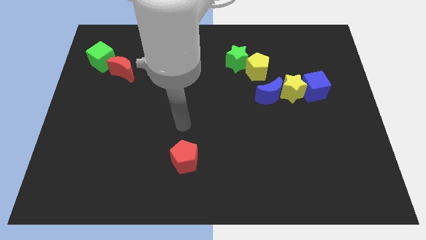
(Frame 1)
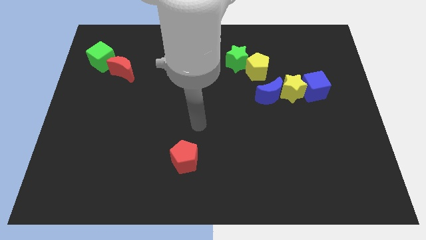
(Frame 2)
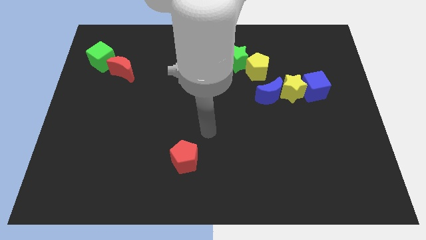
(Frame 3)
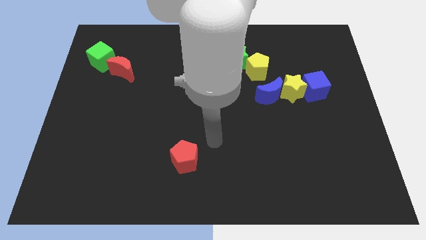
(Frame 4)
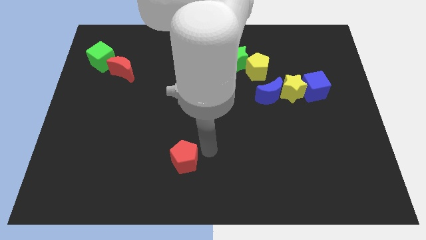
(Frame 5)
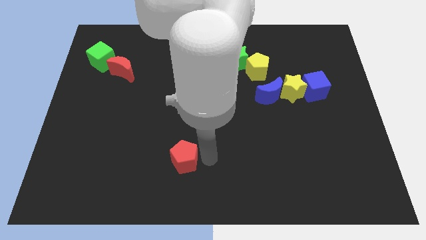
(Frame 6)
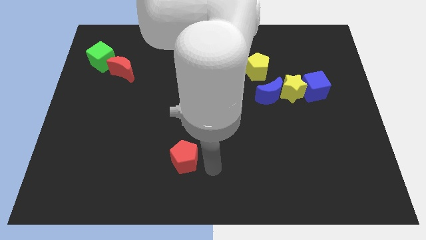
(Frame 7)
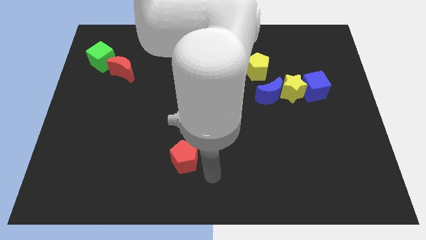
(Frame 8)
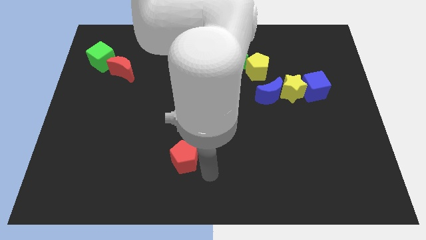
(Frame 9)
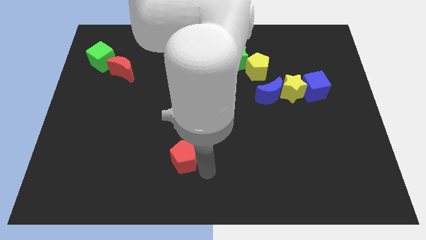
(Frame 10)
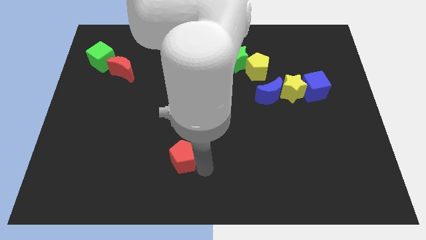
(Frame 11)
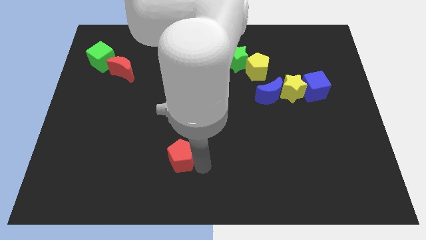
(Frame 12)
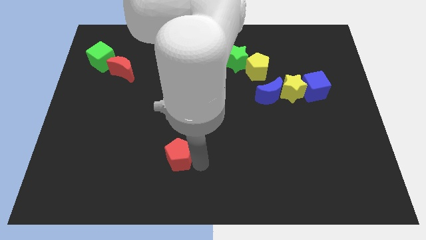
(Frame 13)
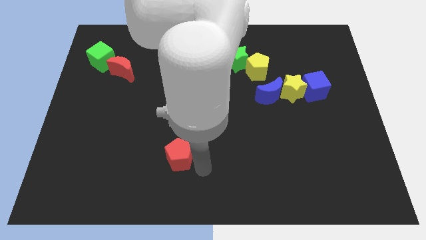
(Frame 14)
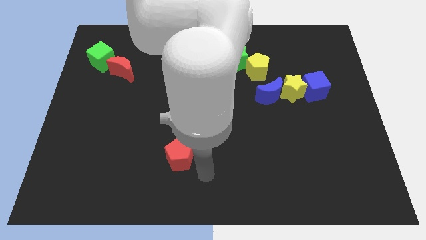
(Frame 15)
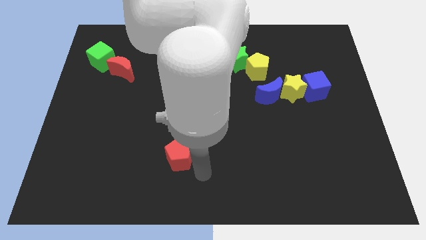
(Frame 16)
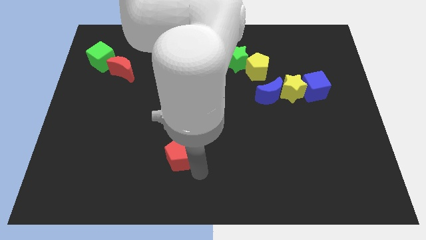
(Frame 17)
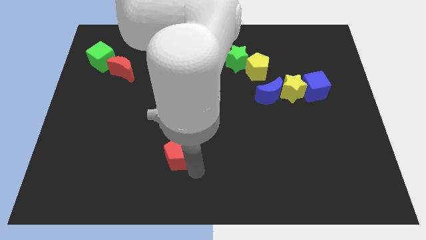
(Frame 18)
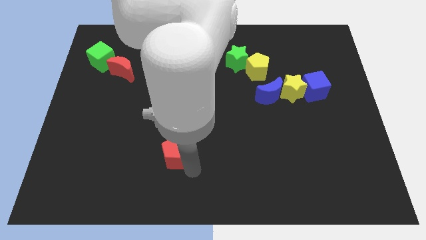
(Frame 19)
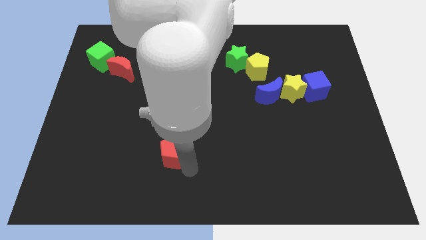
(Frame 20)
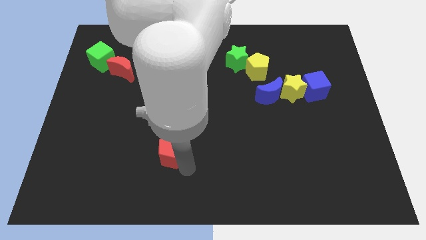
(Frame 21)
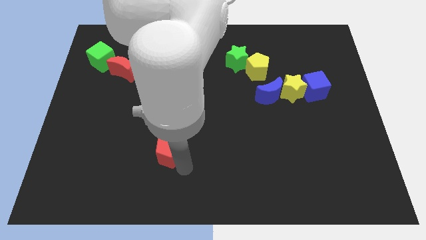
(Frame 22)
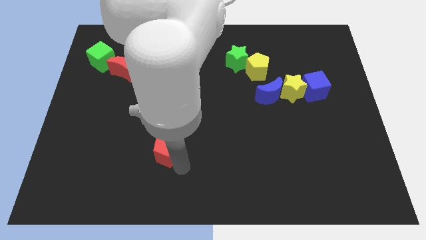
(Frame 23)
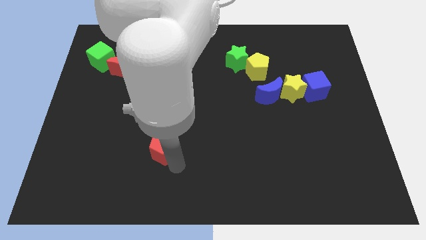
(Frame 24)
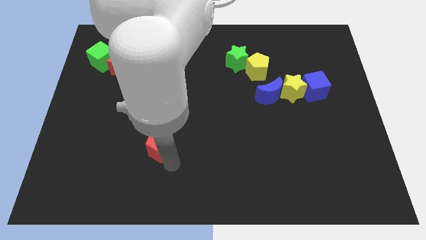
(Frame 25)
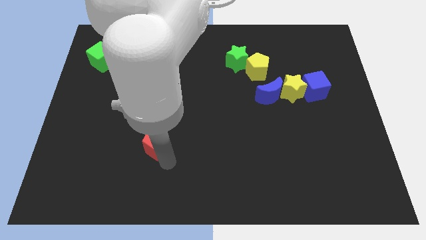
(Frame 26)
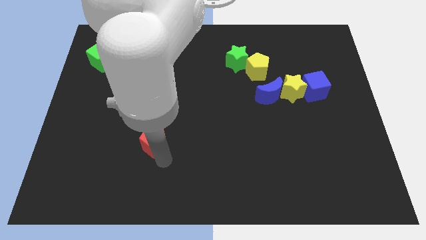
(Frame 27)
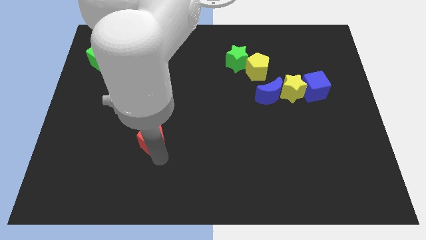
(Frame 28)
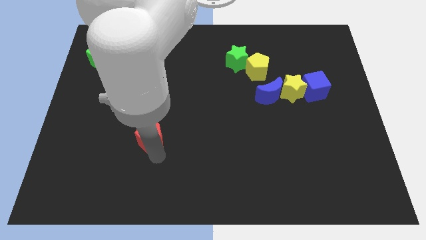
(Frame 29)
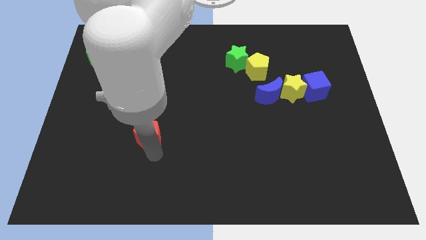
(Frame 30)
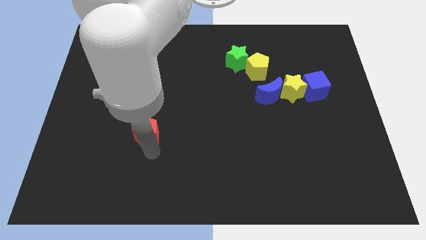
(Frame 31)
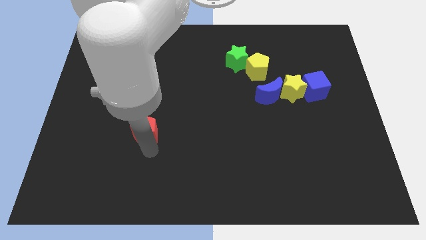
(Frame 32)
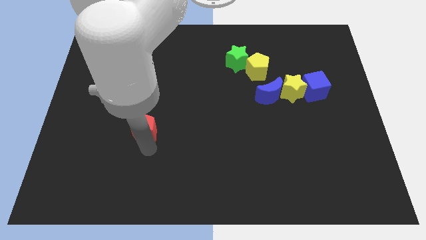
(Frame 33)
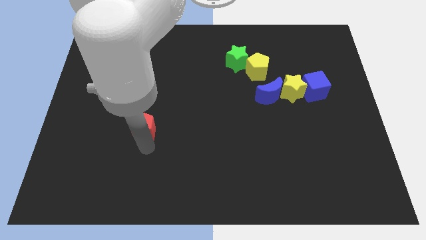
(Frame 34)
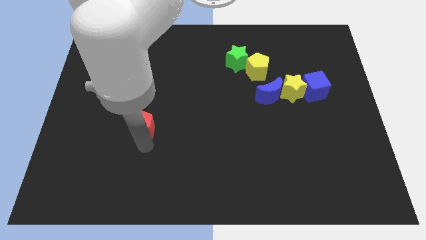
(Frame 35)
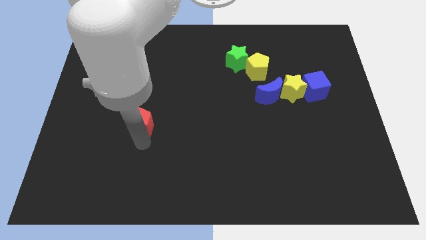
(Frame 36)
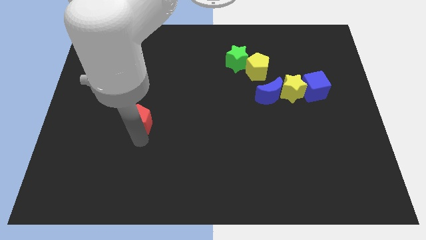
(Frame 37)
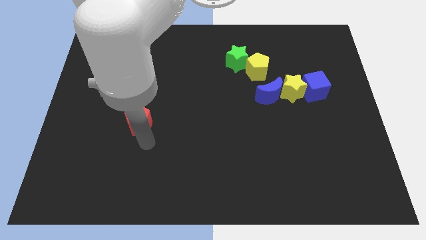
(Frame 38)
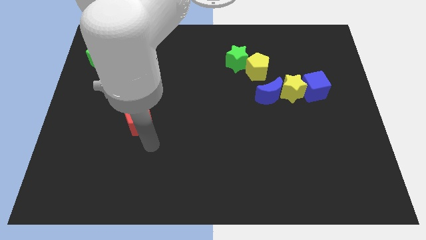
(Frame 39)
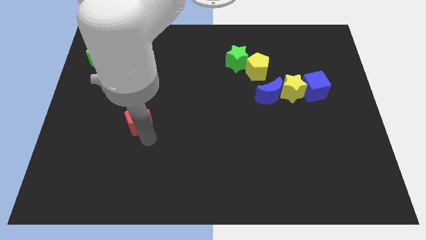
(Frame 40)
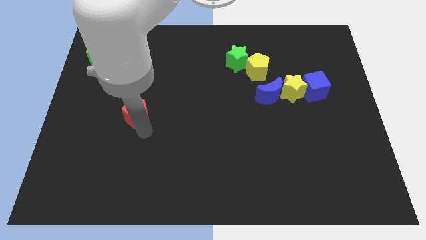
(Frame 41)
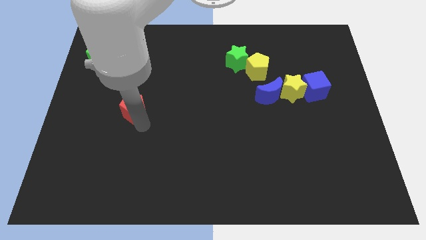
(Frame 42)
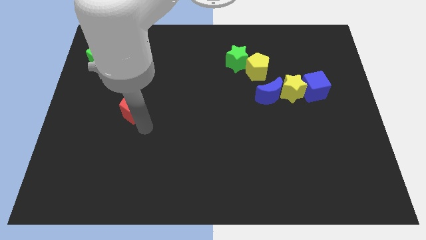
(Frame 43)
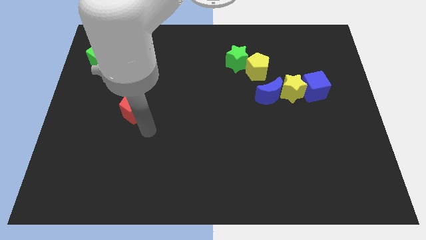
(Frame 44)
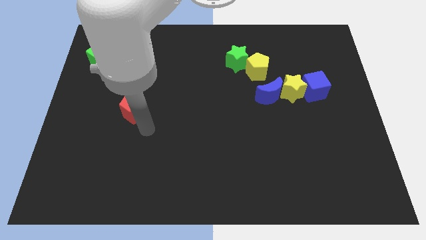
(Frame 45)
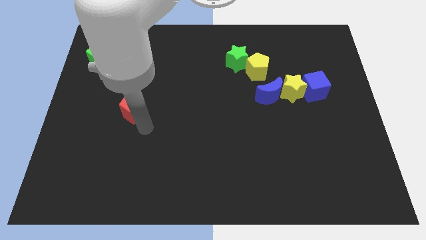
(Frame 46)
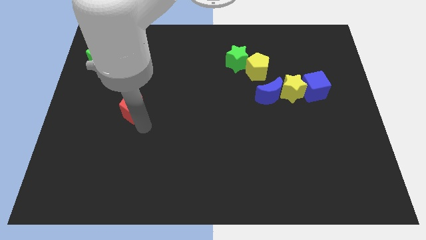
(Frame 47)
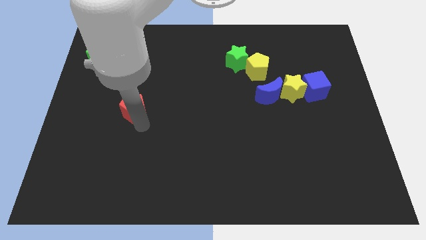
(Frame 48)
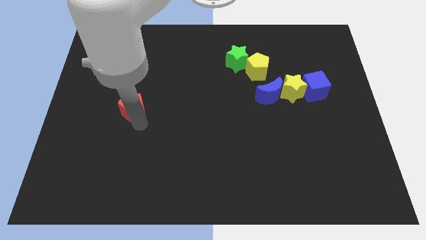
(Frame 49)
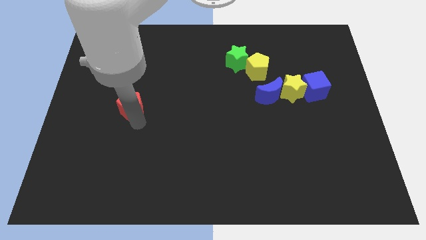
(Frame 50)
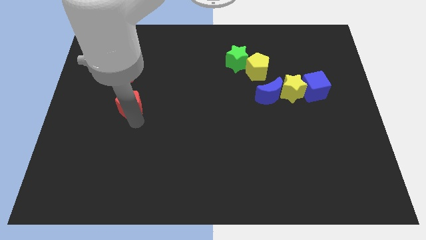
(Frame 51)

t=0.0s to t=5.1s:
push the red pentagon diagonally upwards and left

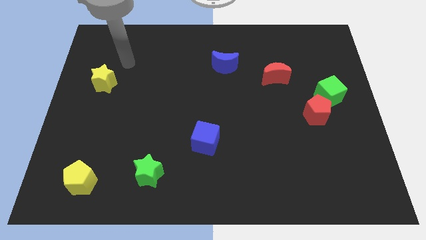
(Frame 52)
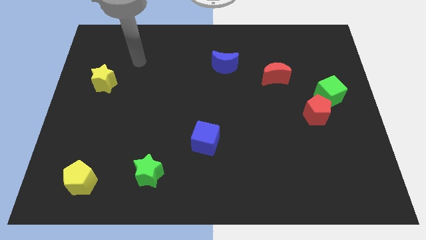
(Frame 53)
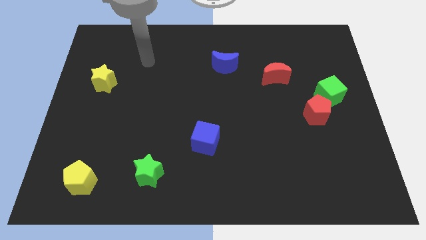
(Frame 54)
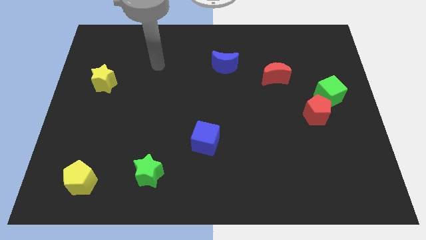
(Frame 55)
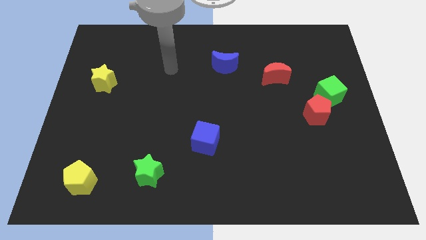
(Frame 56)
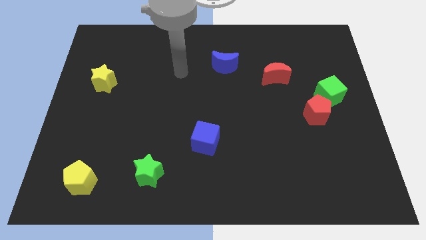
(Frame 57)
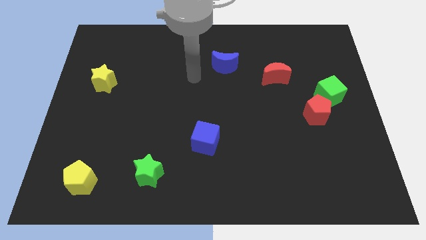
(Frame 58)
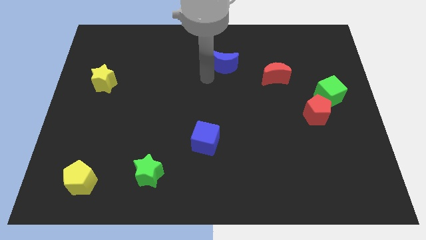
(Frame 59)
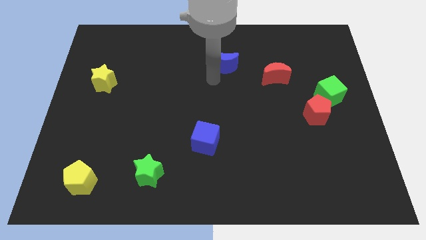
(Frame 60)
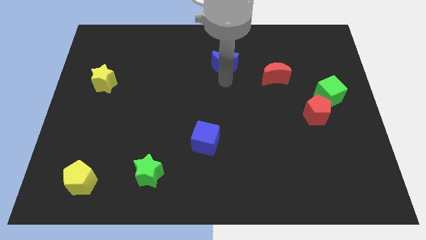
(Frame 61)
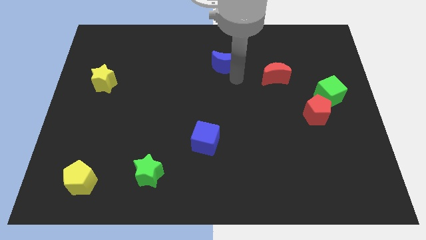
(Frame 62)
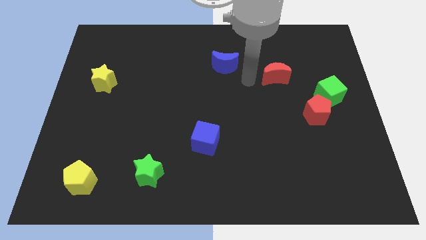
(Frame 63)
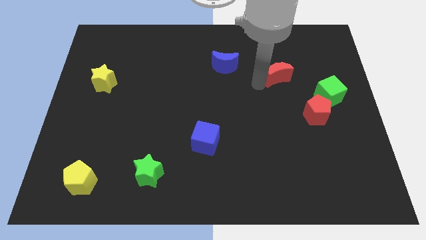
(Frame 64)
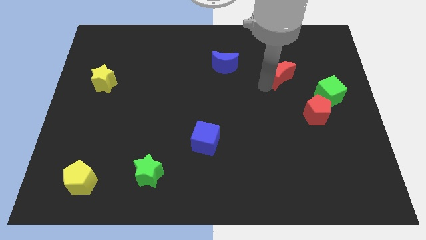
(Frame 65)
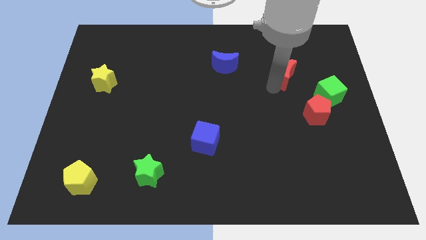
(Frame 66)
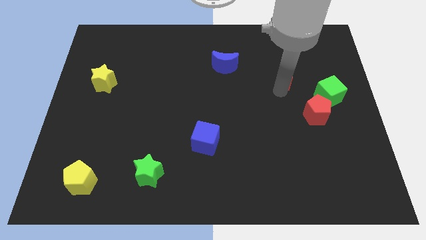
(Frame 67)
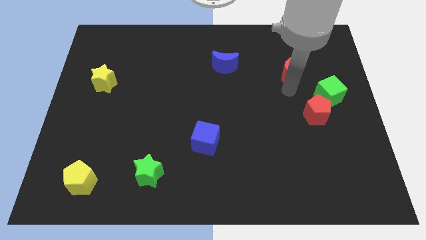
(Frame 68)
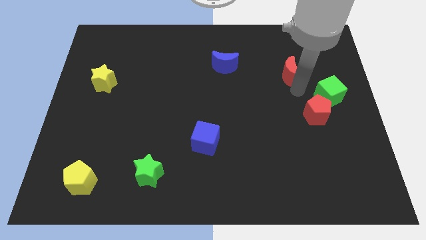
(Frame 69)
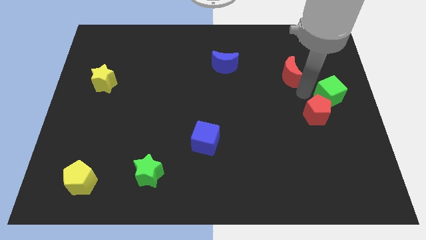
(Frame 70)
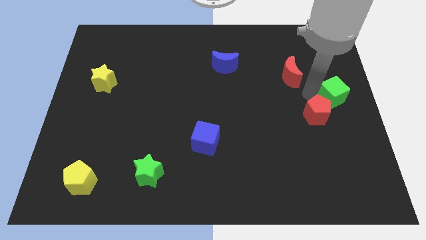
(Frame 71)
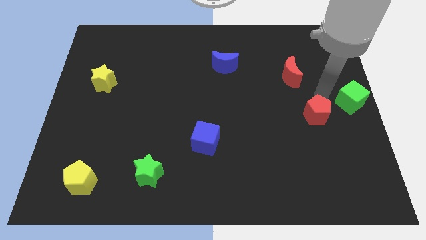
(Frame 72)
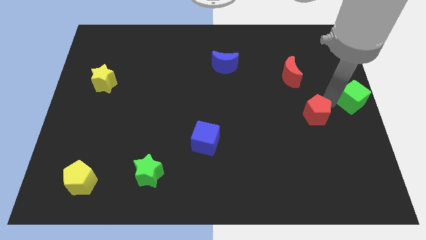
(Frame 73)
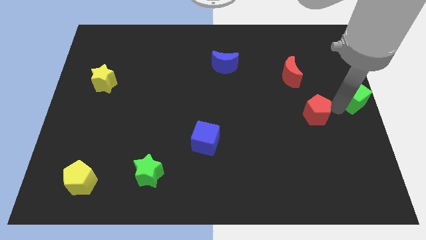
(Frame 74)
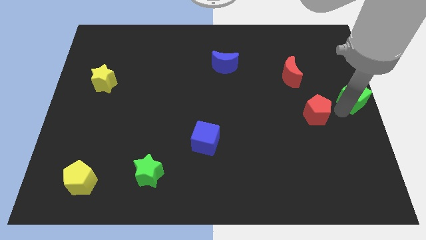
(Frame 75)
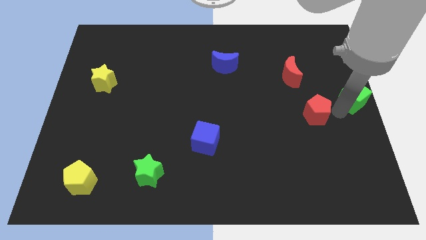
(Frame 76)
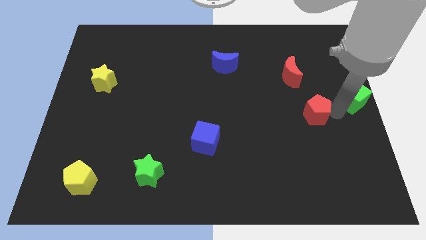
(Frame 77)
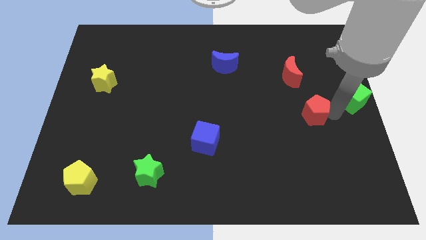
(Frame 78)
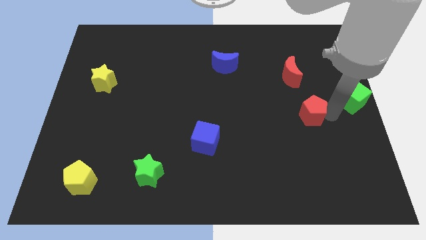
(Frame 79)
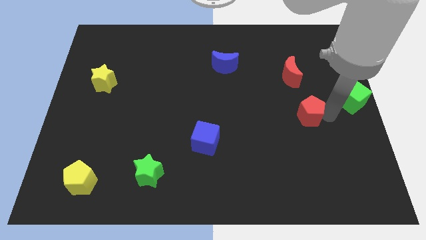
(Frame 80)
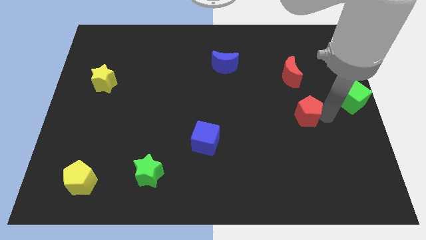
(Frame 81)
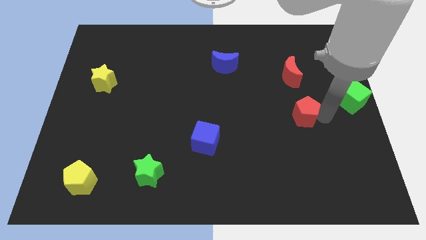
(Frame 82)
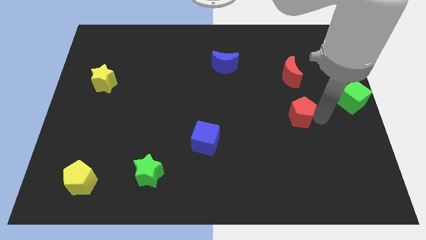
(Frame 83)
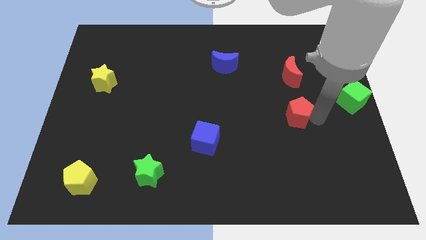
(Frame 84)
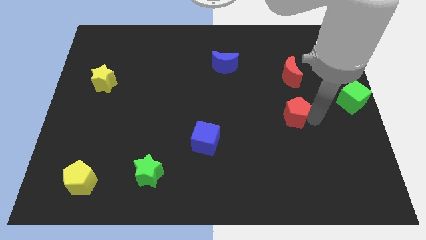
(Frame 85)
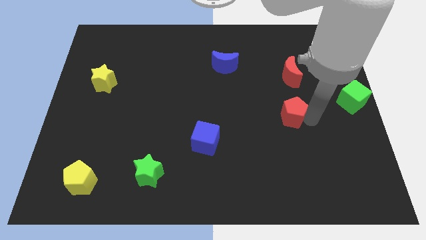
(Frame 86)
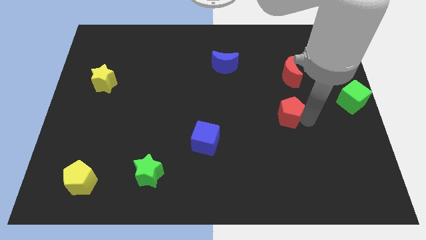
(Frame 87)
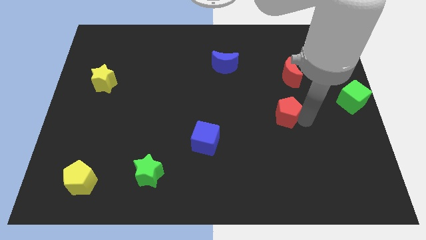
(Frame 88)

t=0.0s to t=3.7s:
move the red pentagon somewhat to the left
